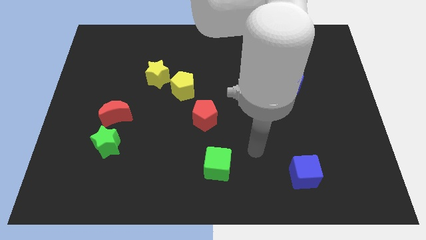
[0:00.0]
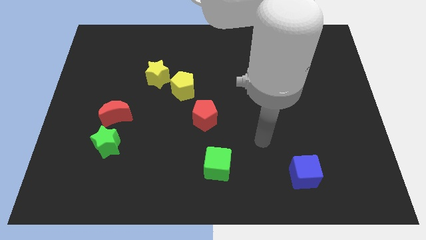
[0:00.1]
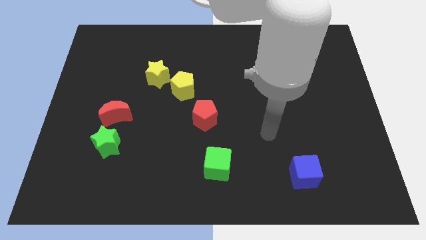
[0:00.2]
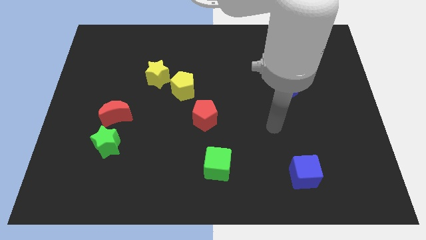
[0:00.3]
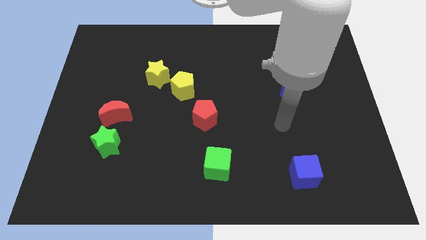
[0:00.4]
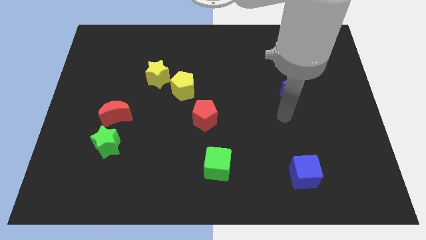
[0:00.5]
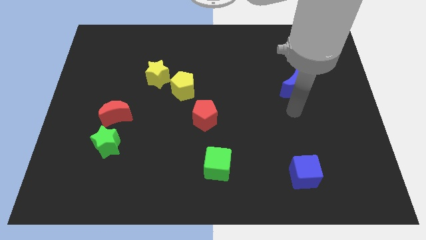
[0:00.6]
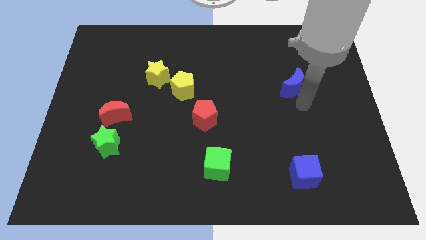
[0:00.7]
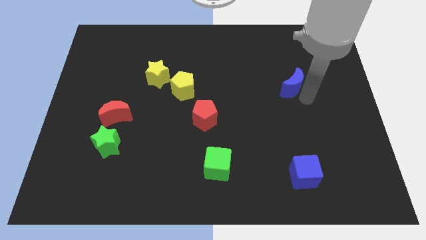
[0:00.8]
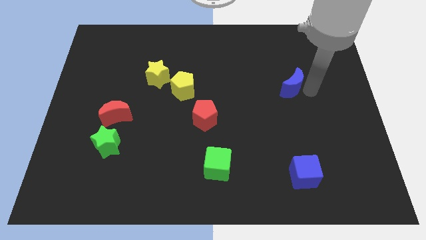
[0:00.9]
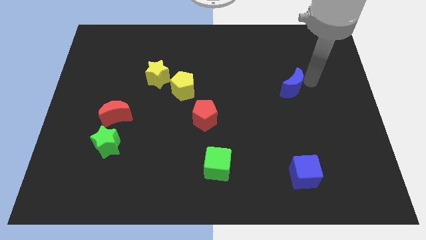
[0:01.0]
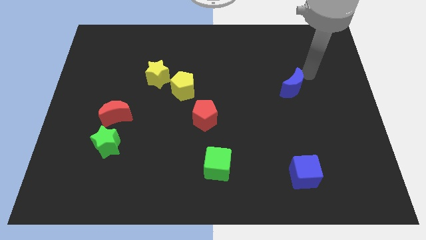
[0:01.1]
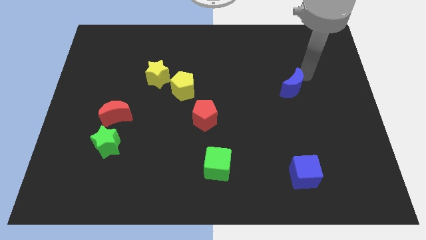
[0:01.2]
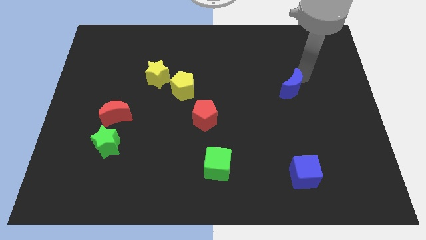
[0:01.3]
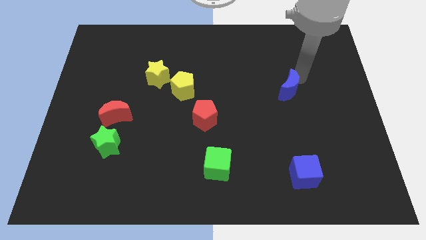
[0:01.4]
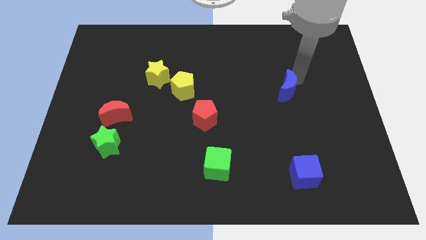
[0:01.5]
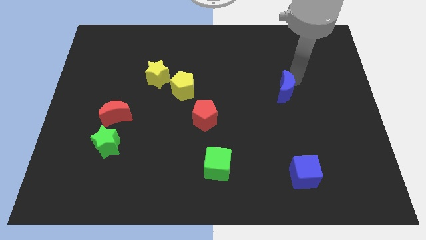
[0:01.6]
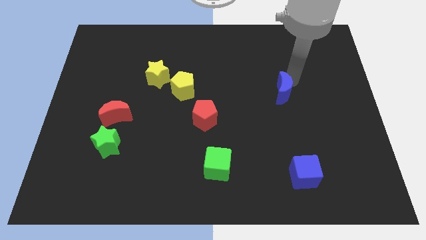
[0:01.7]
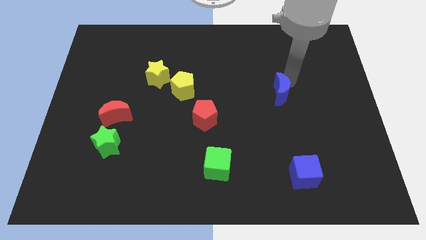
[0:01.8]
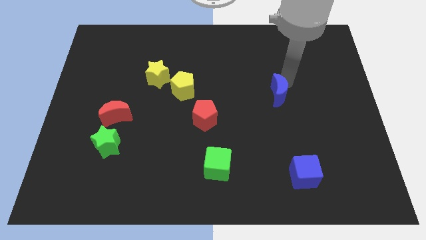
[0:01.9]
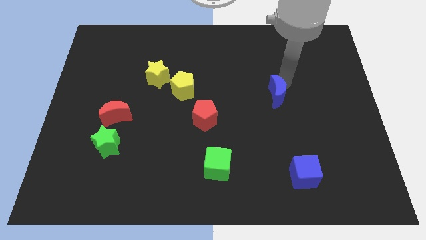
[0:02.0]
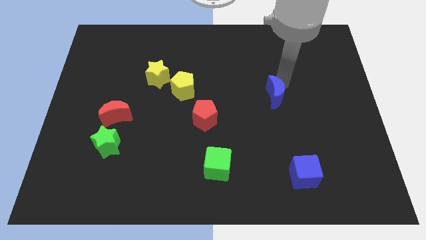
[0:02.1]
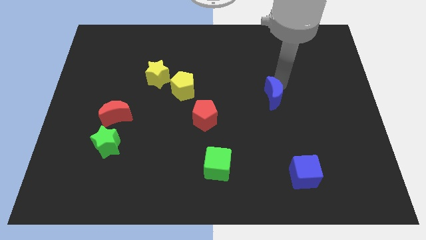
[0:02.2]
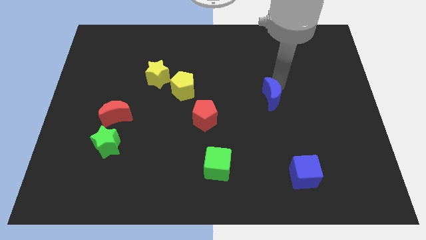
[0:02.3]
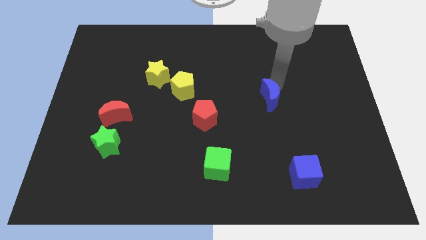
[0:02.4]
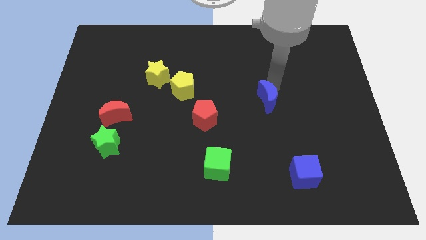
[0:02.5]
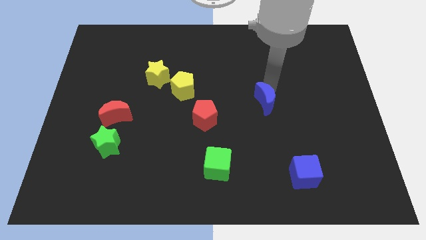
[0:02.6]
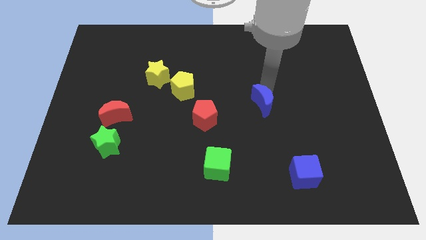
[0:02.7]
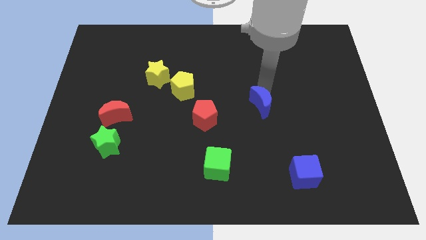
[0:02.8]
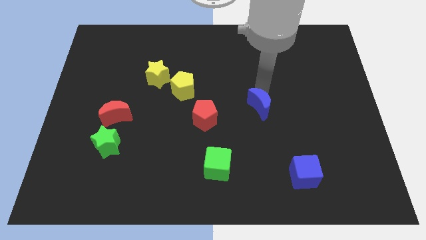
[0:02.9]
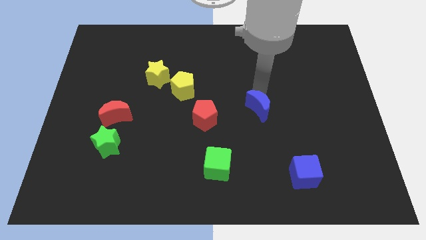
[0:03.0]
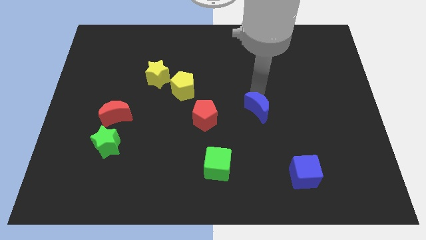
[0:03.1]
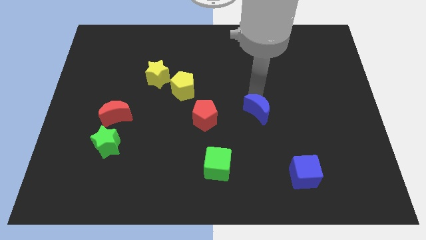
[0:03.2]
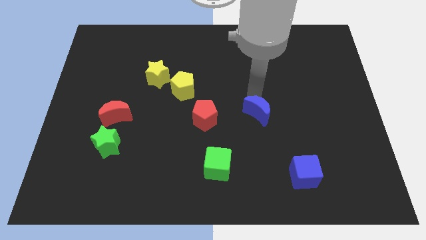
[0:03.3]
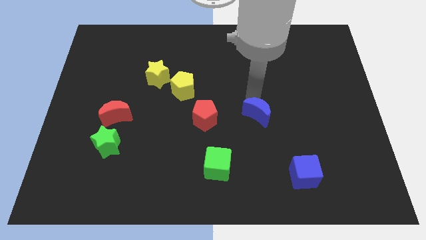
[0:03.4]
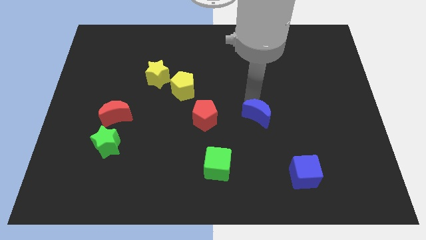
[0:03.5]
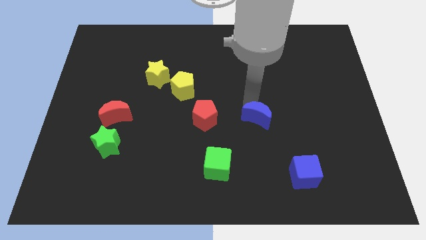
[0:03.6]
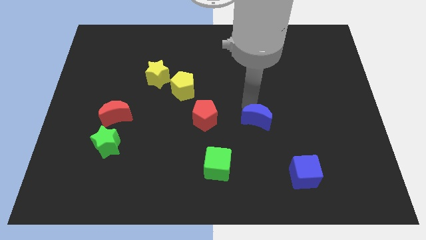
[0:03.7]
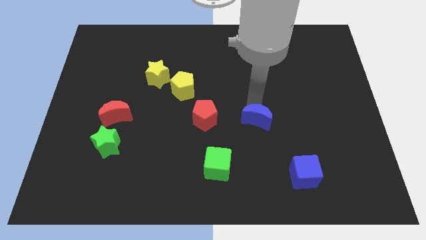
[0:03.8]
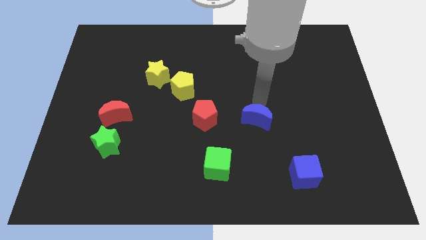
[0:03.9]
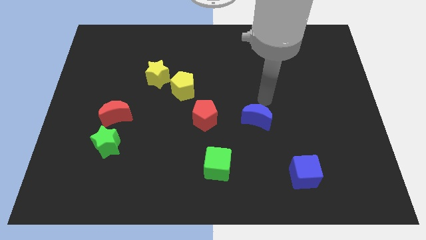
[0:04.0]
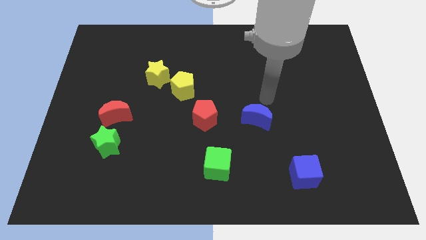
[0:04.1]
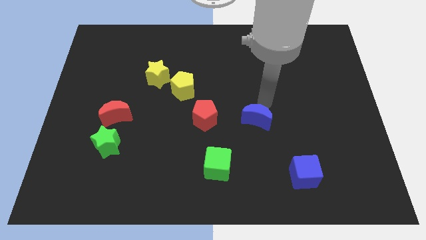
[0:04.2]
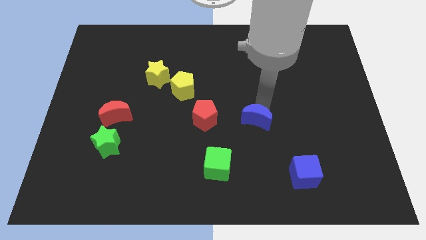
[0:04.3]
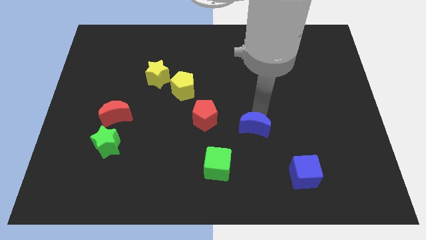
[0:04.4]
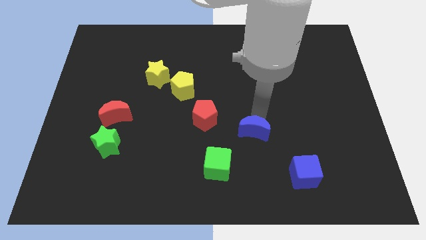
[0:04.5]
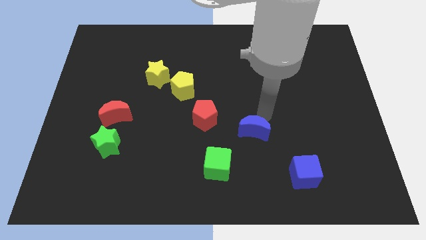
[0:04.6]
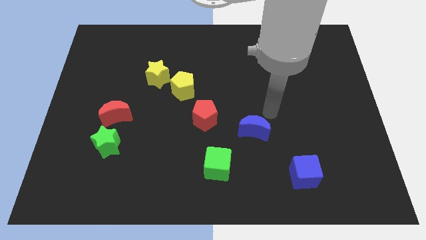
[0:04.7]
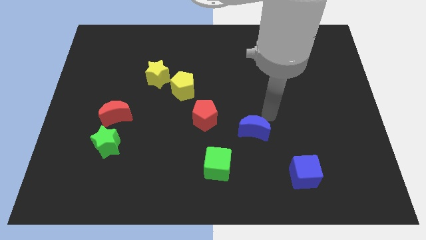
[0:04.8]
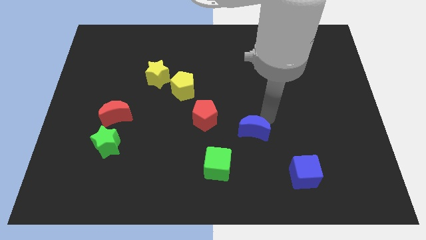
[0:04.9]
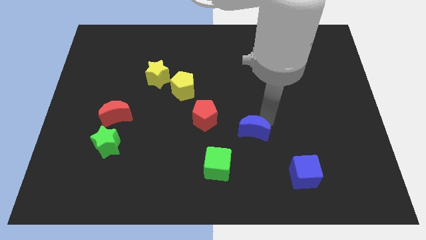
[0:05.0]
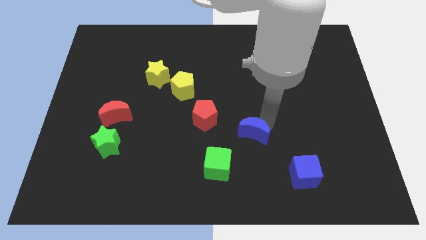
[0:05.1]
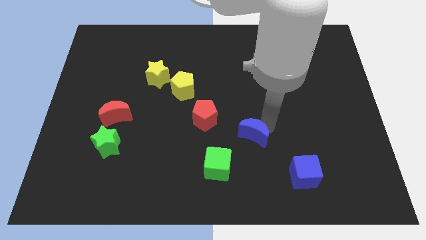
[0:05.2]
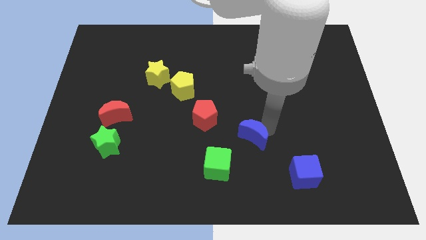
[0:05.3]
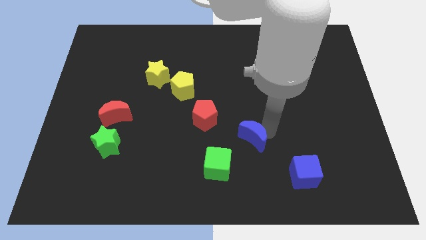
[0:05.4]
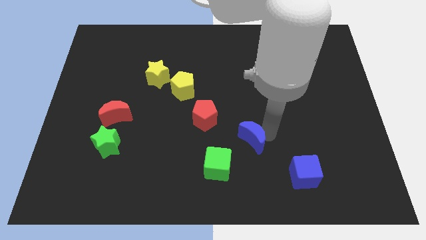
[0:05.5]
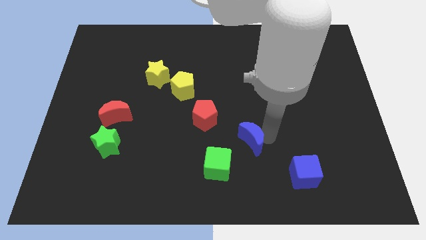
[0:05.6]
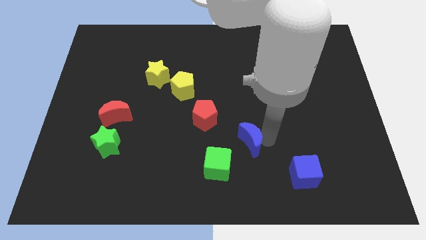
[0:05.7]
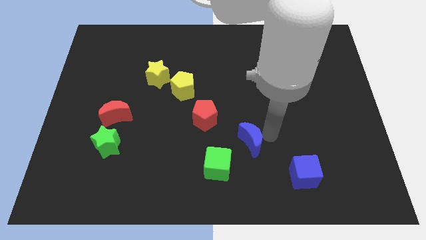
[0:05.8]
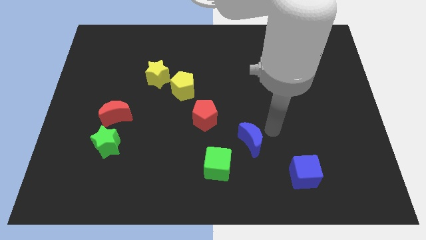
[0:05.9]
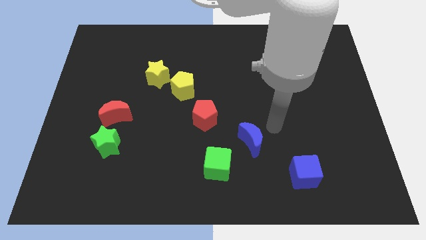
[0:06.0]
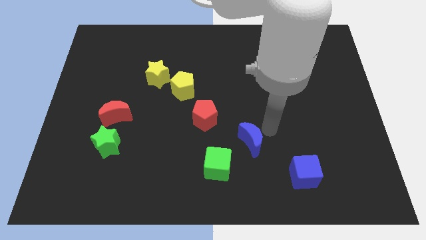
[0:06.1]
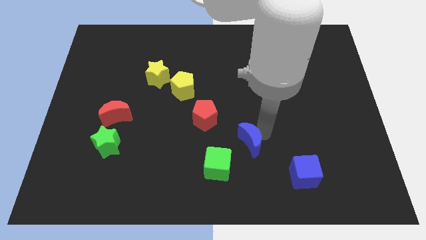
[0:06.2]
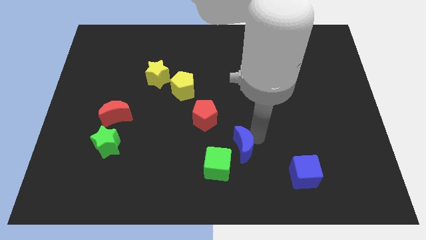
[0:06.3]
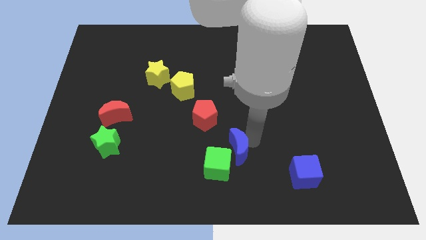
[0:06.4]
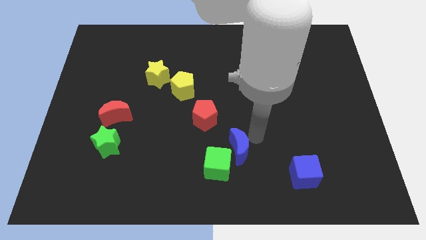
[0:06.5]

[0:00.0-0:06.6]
move the blue moon to the green cube

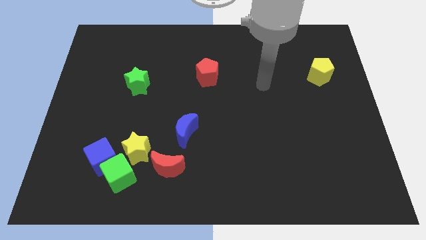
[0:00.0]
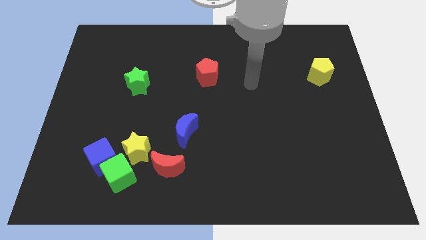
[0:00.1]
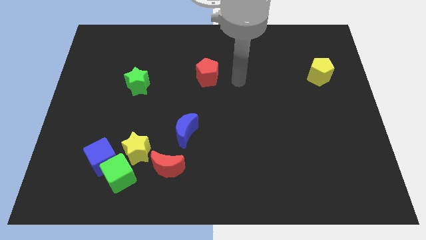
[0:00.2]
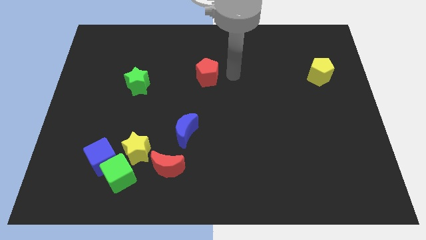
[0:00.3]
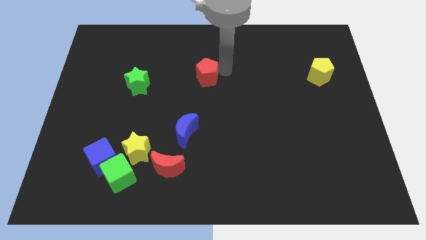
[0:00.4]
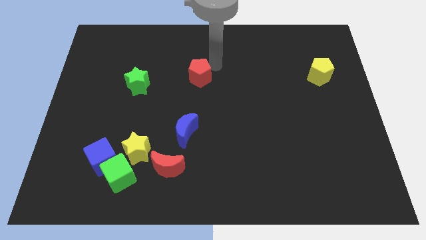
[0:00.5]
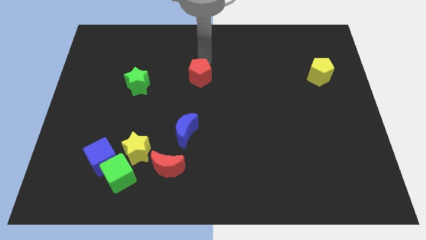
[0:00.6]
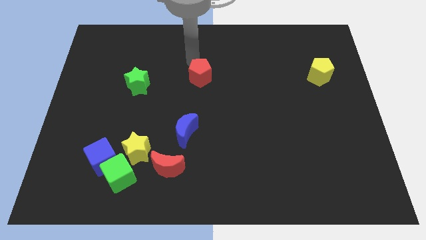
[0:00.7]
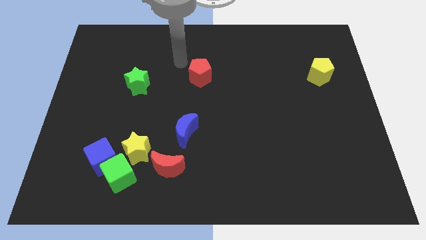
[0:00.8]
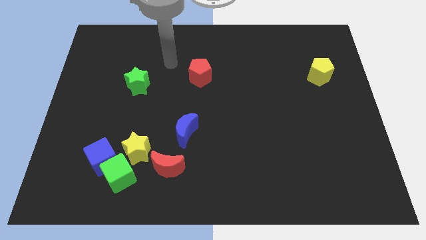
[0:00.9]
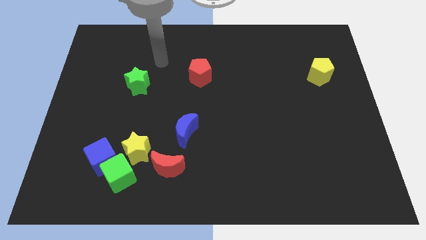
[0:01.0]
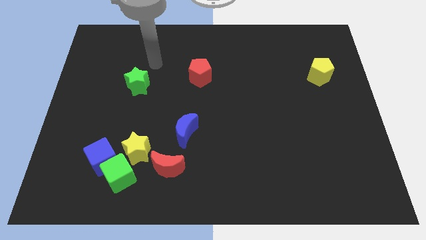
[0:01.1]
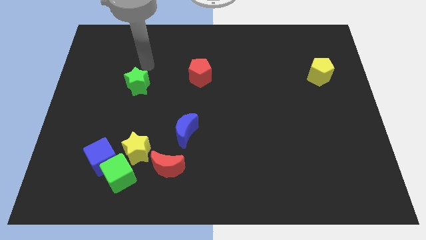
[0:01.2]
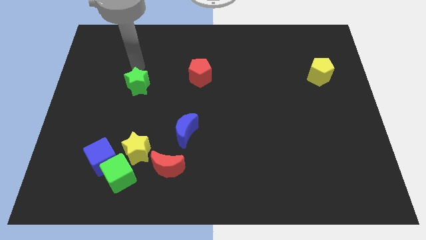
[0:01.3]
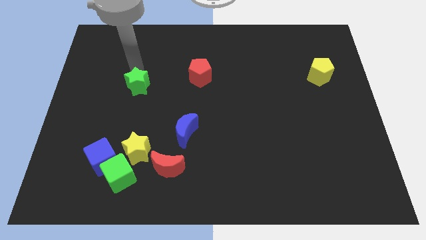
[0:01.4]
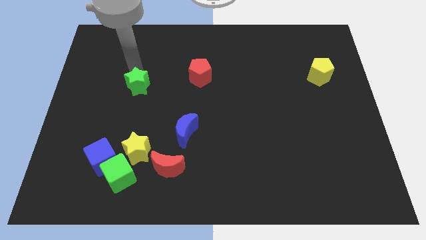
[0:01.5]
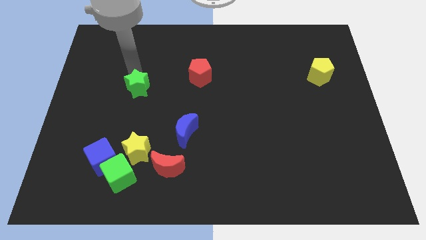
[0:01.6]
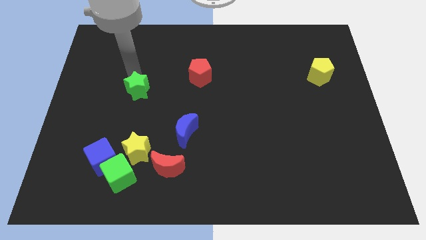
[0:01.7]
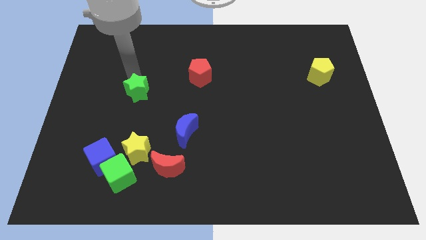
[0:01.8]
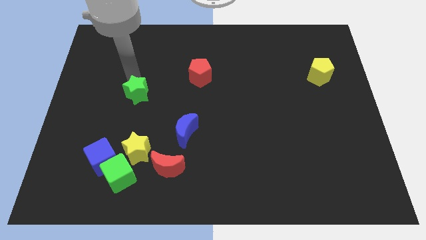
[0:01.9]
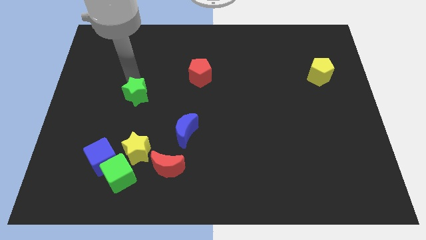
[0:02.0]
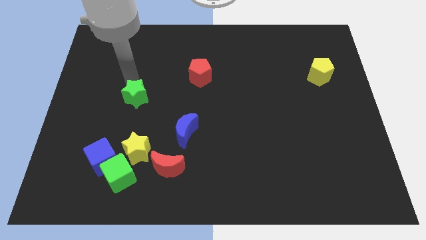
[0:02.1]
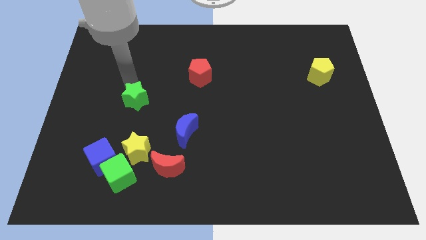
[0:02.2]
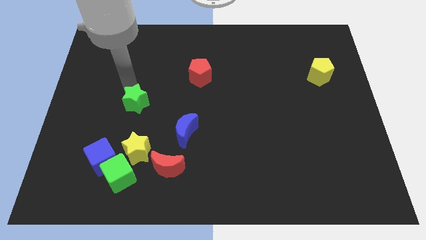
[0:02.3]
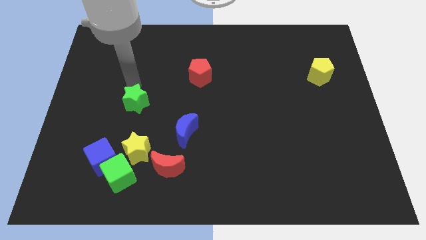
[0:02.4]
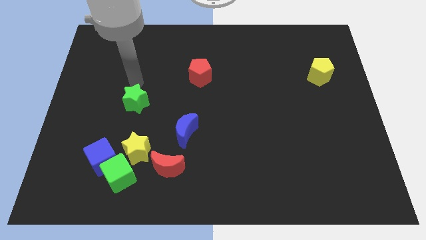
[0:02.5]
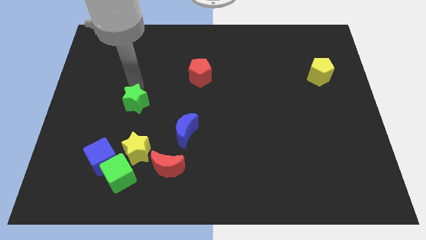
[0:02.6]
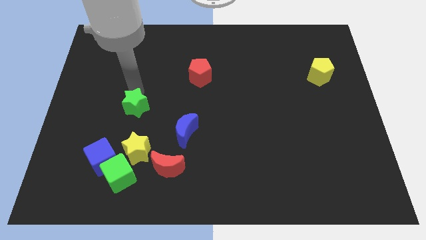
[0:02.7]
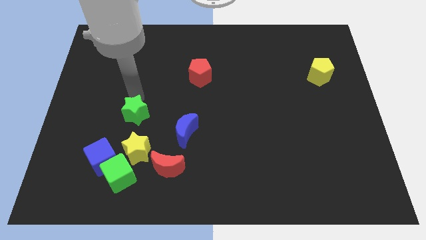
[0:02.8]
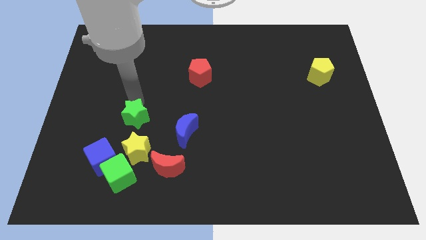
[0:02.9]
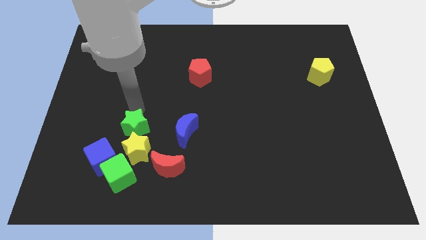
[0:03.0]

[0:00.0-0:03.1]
push the green star towards the yellow star
